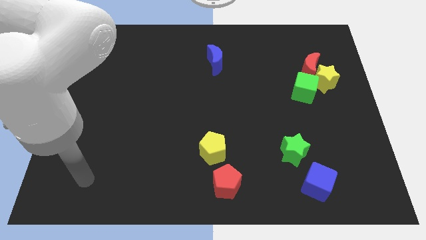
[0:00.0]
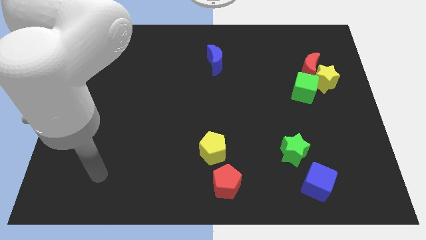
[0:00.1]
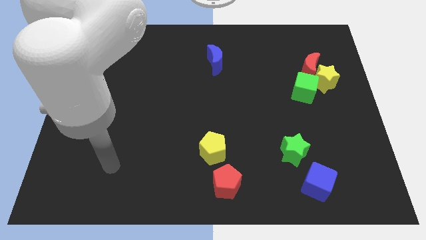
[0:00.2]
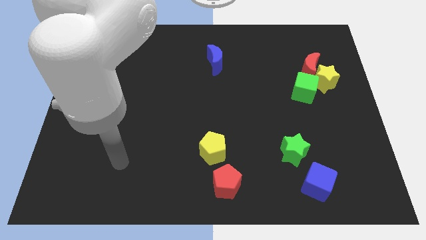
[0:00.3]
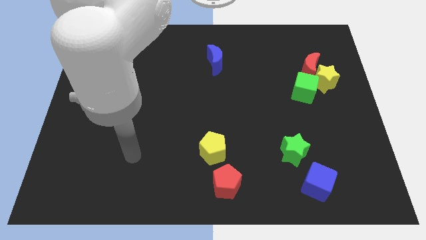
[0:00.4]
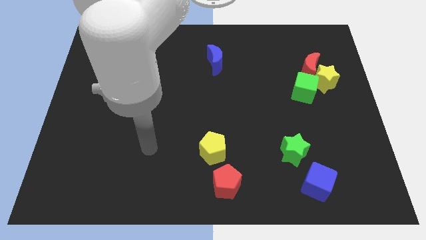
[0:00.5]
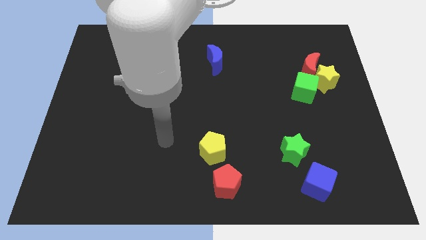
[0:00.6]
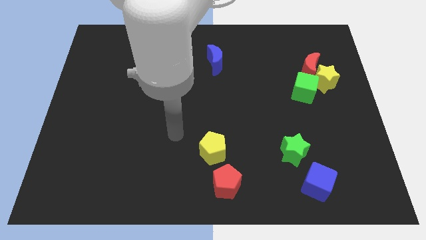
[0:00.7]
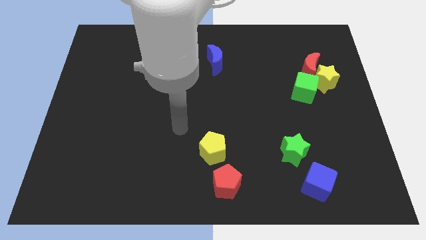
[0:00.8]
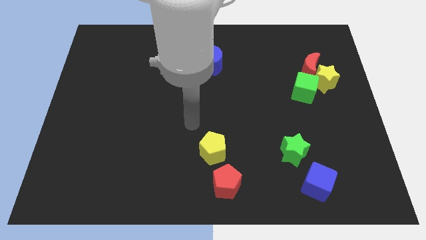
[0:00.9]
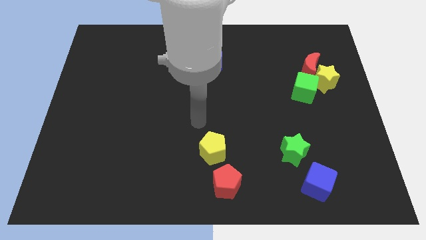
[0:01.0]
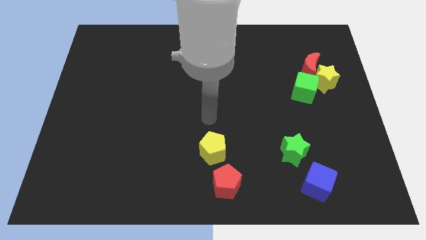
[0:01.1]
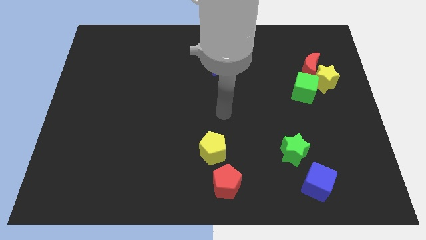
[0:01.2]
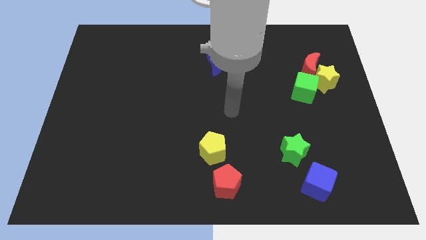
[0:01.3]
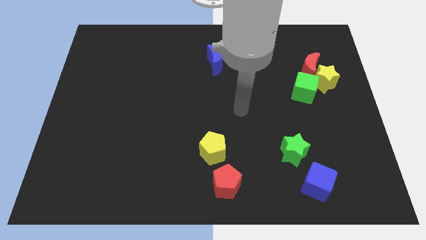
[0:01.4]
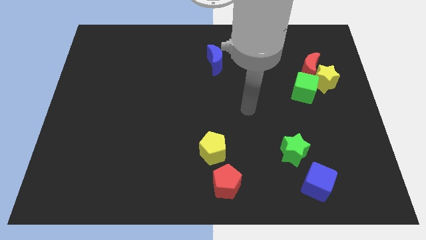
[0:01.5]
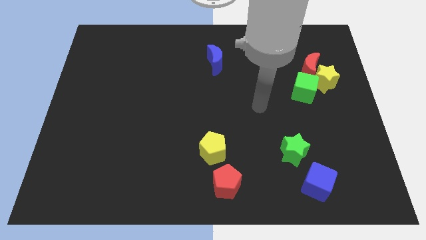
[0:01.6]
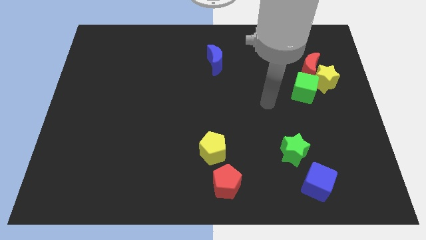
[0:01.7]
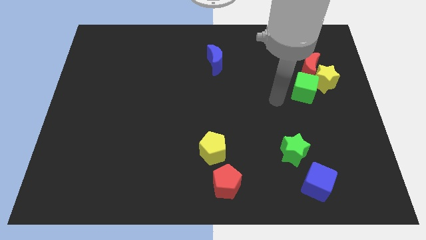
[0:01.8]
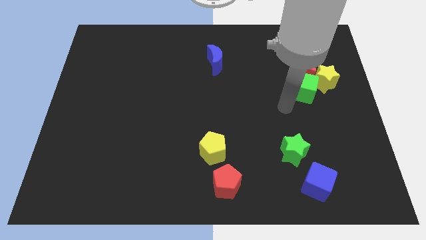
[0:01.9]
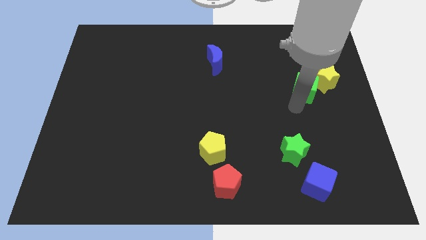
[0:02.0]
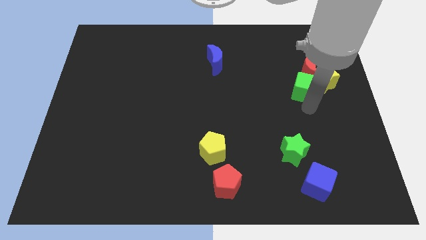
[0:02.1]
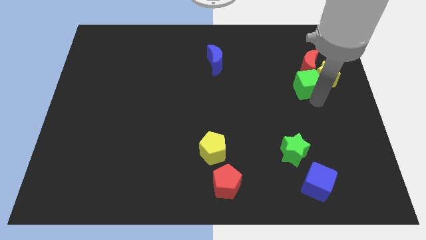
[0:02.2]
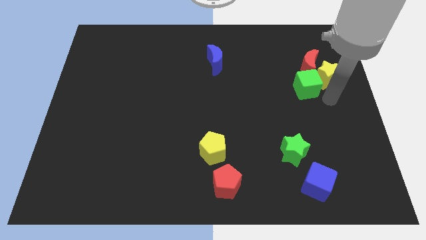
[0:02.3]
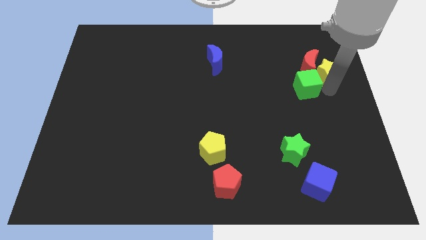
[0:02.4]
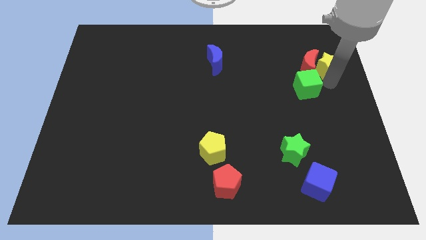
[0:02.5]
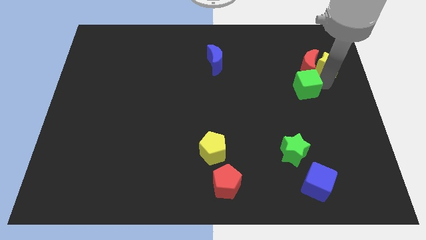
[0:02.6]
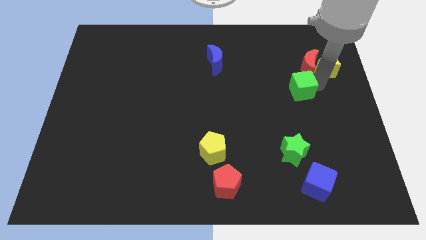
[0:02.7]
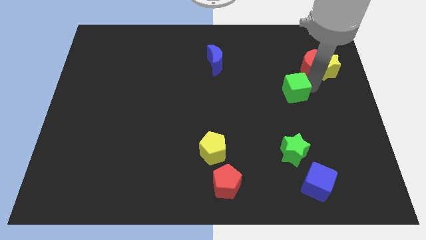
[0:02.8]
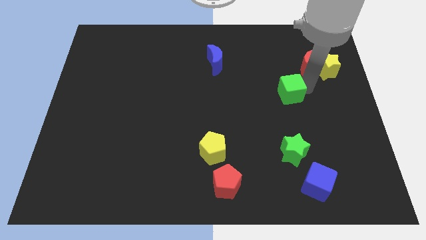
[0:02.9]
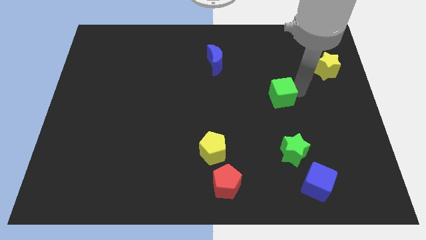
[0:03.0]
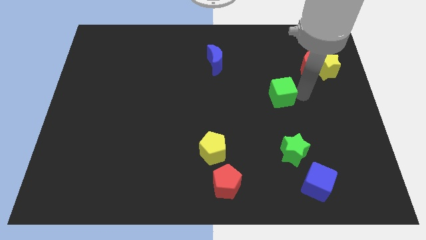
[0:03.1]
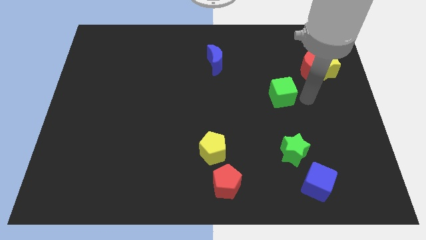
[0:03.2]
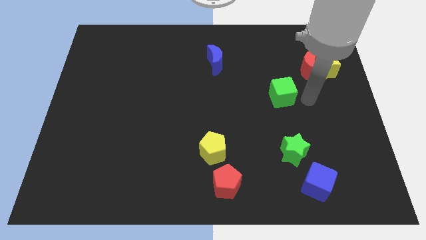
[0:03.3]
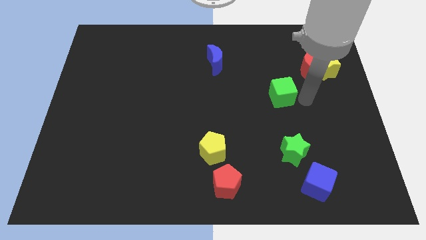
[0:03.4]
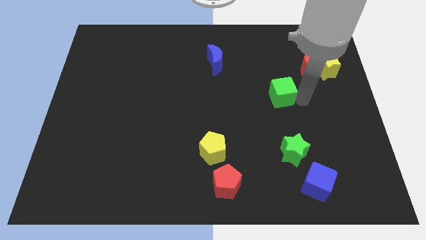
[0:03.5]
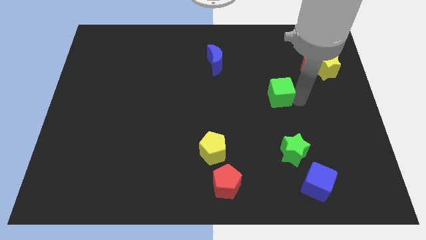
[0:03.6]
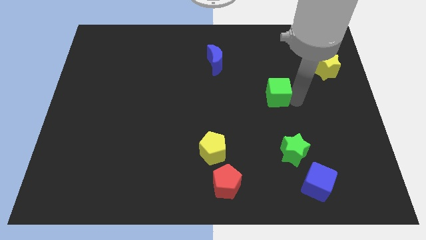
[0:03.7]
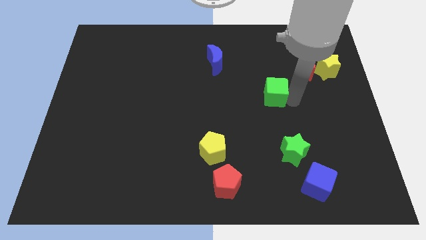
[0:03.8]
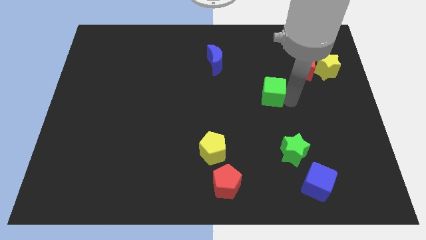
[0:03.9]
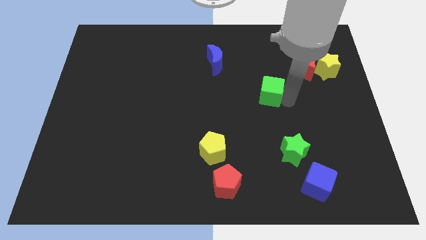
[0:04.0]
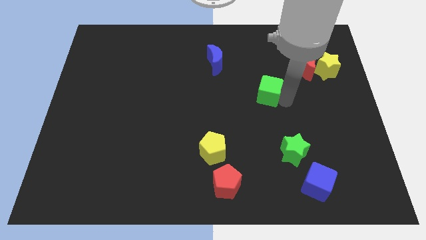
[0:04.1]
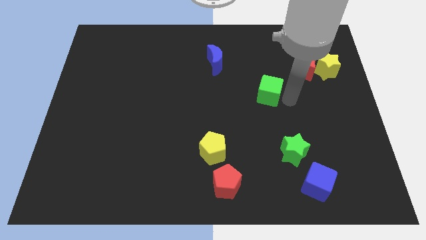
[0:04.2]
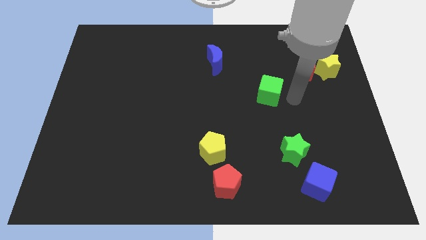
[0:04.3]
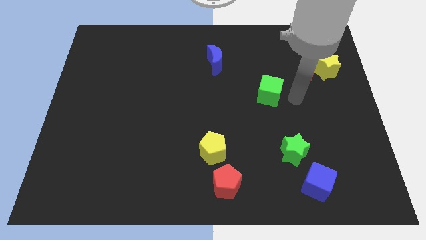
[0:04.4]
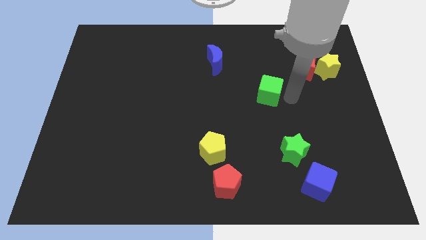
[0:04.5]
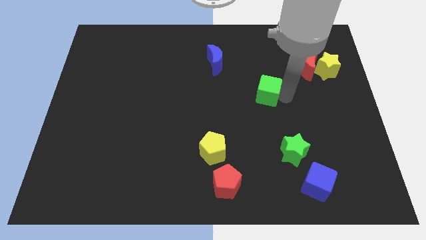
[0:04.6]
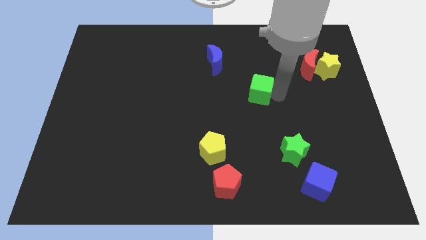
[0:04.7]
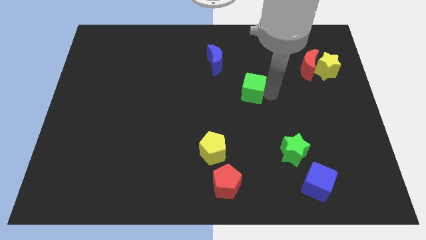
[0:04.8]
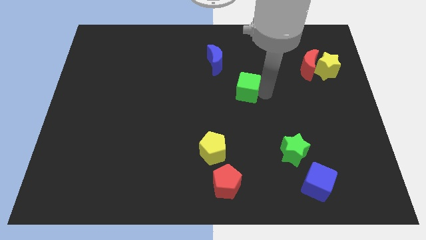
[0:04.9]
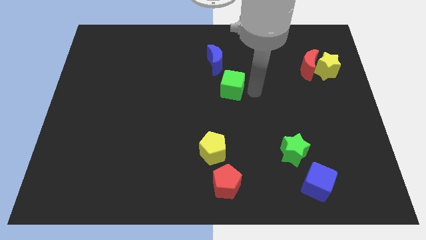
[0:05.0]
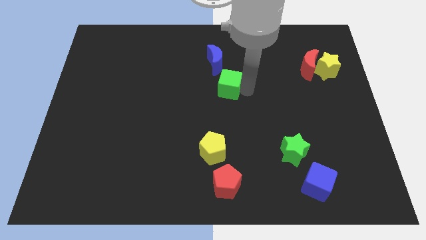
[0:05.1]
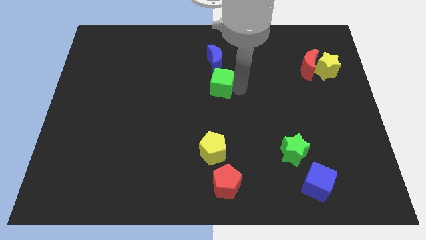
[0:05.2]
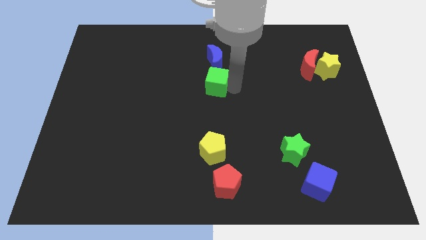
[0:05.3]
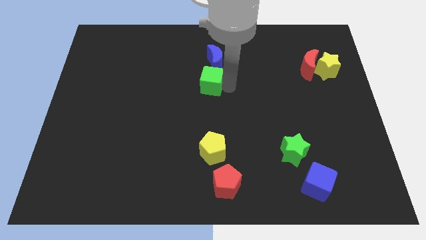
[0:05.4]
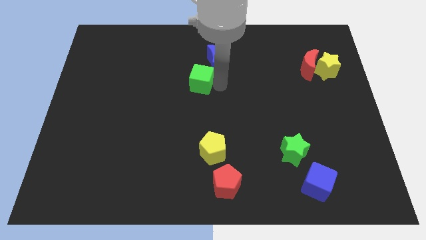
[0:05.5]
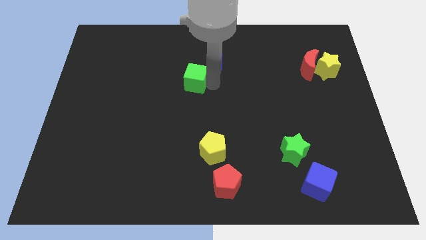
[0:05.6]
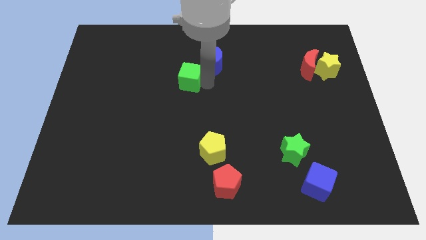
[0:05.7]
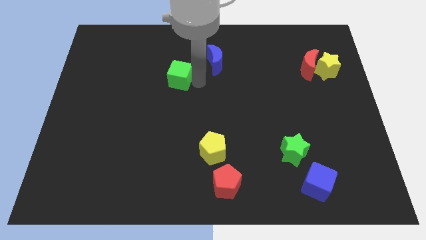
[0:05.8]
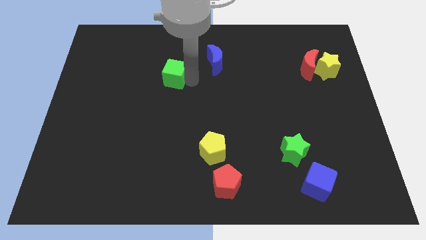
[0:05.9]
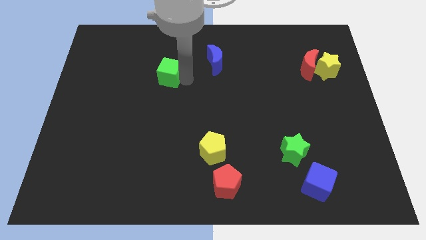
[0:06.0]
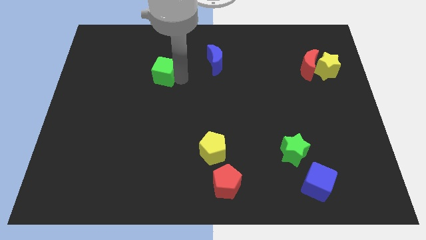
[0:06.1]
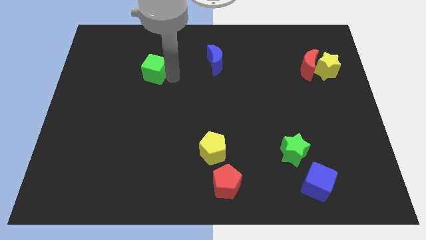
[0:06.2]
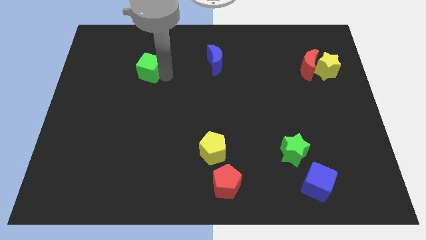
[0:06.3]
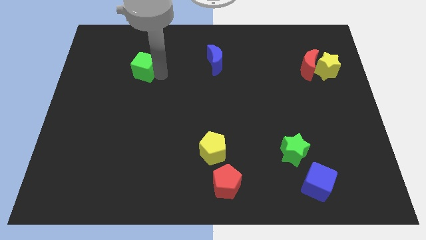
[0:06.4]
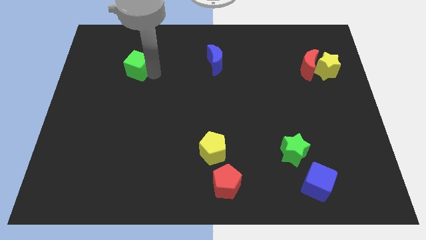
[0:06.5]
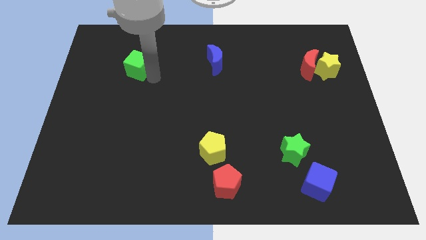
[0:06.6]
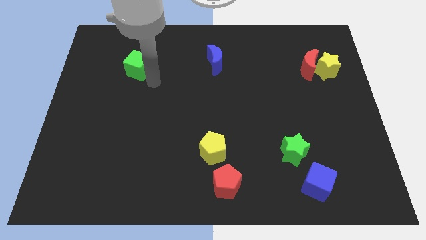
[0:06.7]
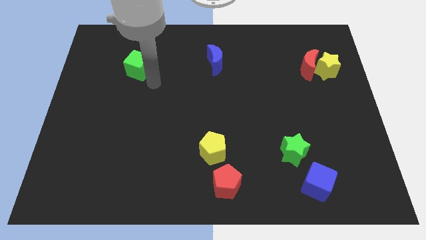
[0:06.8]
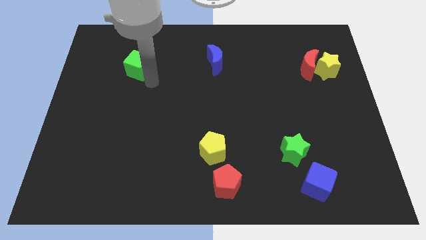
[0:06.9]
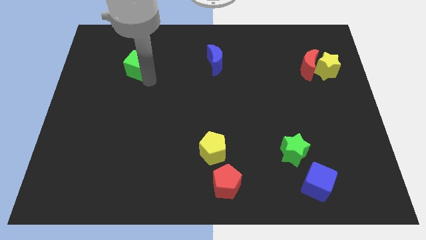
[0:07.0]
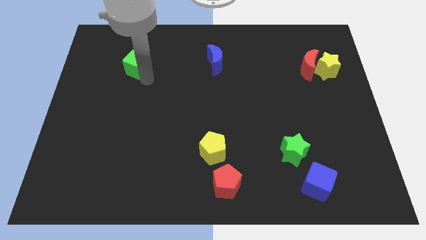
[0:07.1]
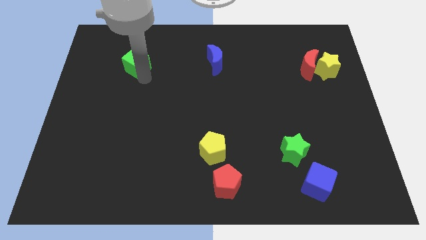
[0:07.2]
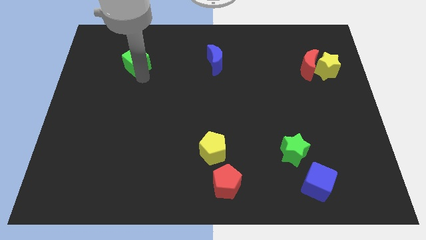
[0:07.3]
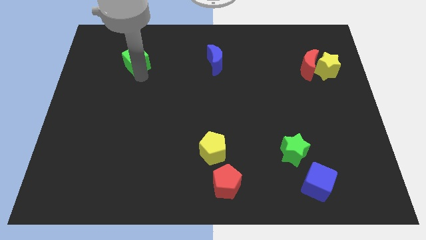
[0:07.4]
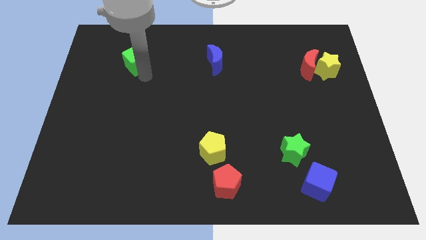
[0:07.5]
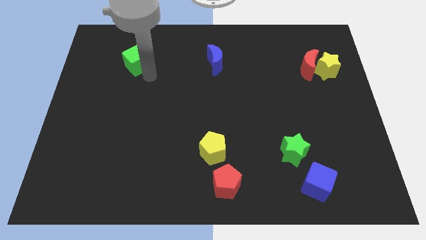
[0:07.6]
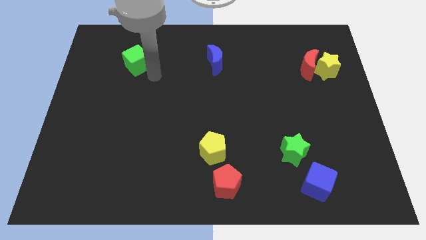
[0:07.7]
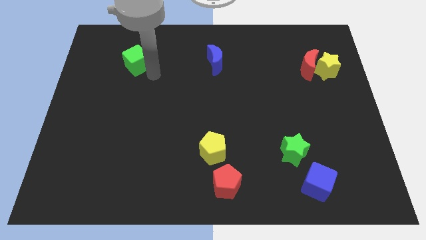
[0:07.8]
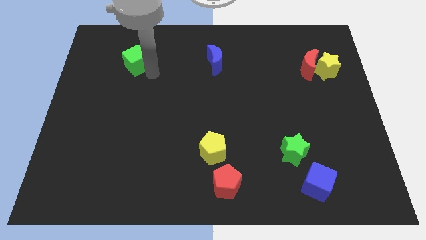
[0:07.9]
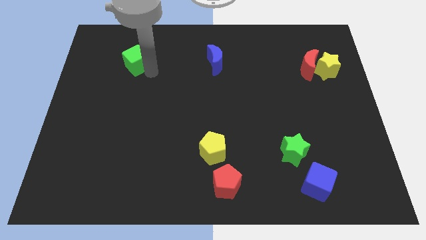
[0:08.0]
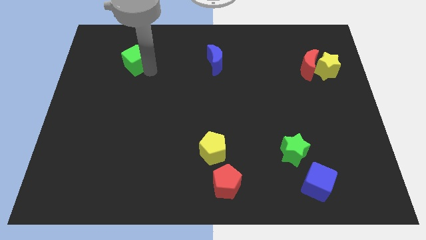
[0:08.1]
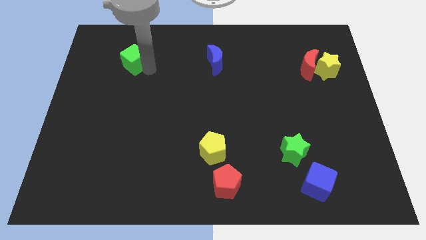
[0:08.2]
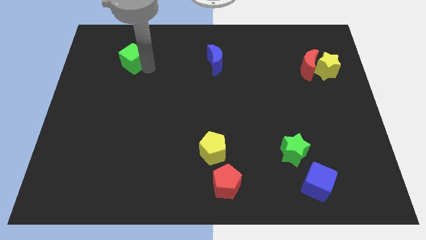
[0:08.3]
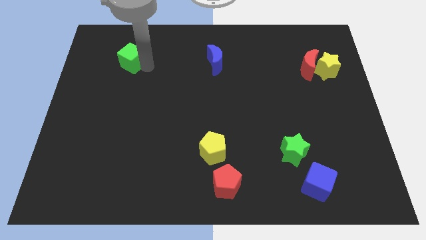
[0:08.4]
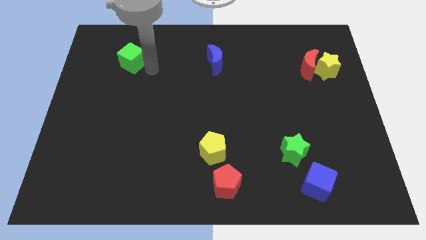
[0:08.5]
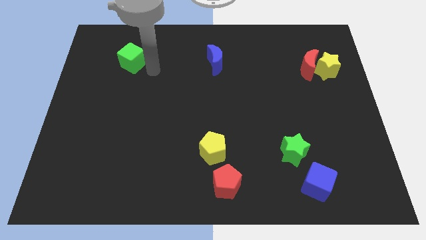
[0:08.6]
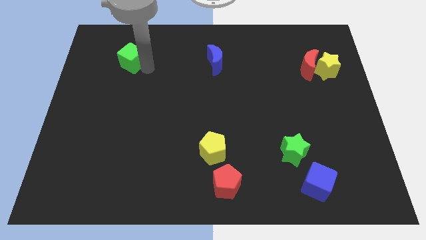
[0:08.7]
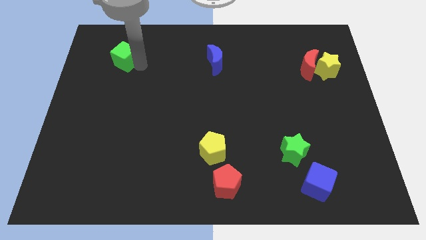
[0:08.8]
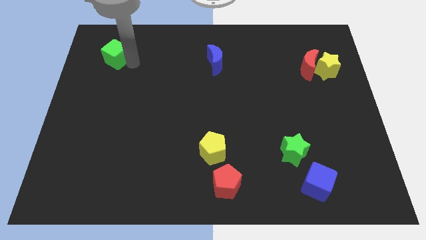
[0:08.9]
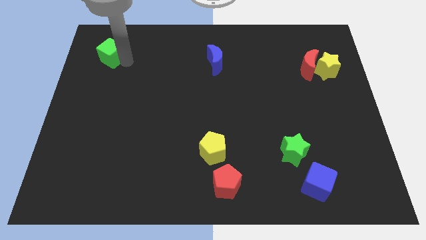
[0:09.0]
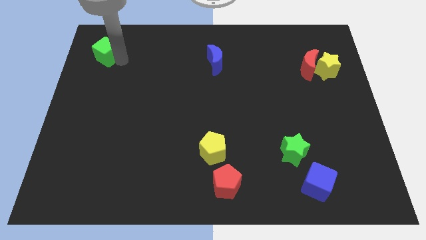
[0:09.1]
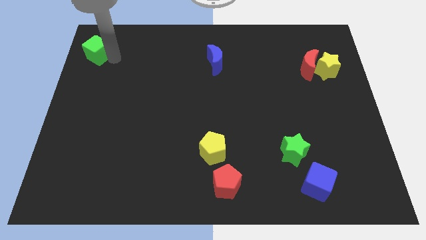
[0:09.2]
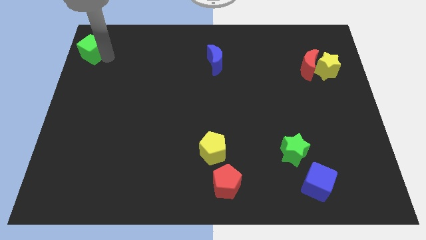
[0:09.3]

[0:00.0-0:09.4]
put the green cube to the upper left corner
